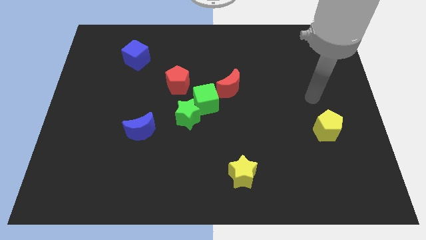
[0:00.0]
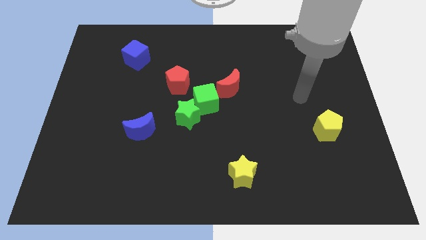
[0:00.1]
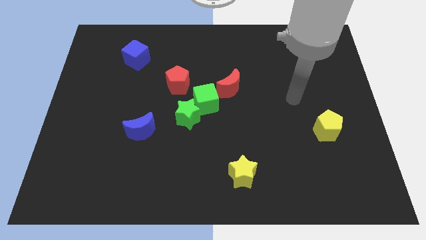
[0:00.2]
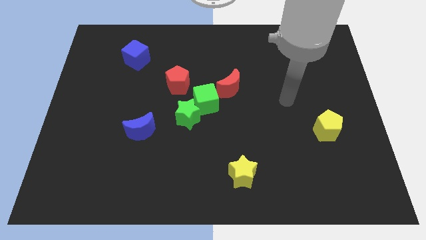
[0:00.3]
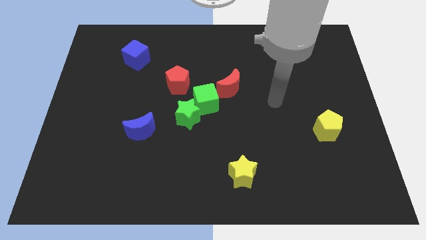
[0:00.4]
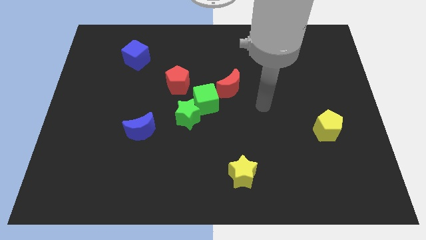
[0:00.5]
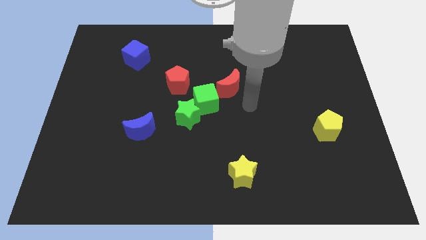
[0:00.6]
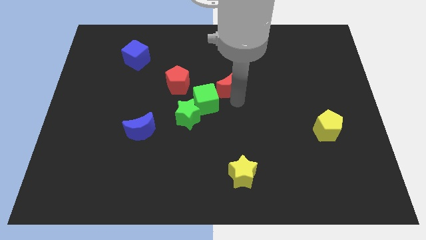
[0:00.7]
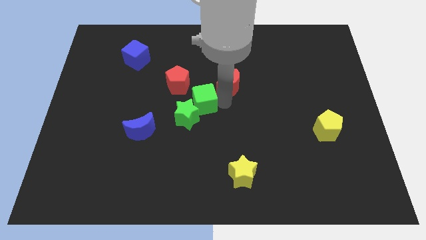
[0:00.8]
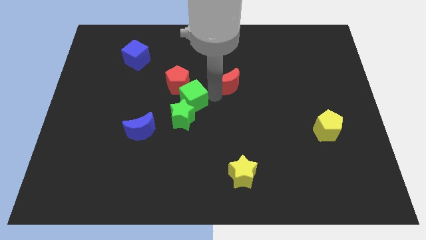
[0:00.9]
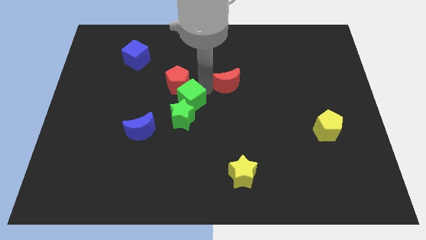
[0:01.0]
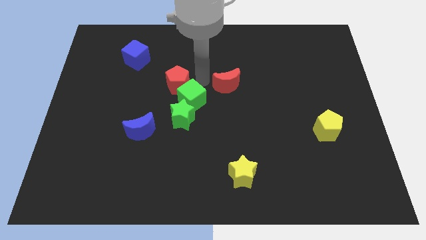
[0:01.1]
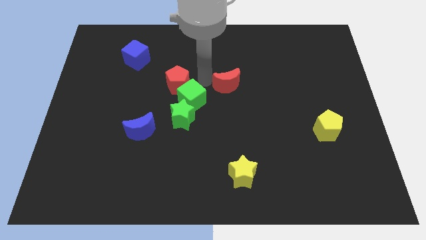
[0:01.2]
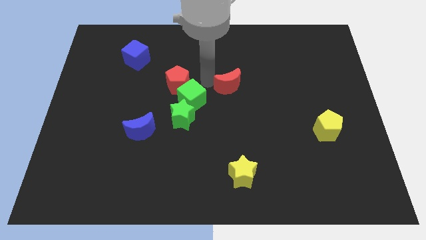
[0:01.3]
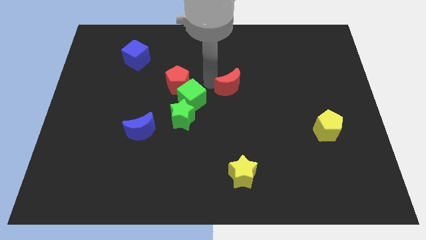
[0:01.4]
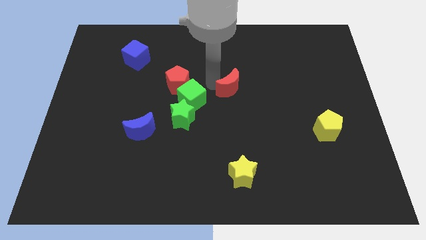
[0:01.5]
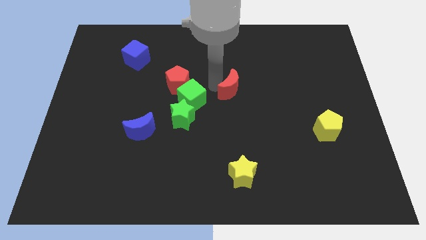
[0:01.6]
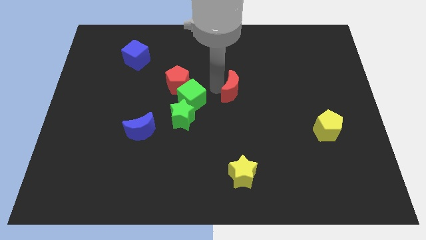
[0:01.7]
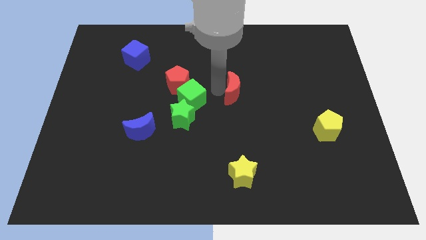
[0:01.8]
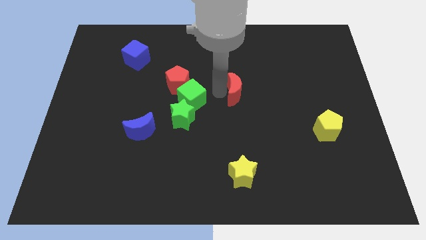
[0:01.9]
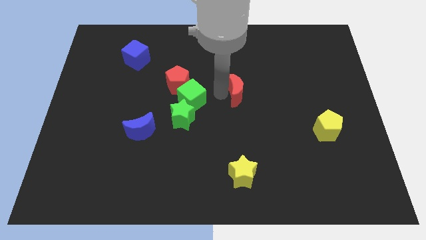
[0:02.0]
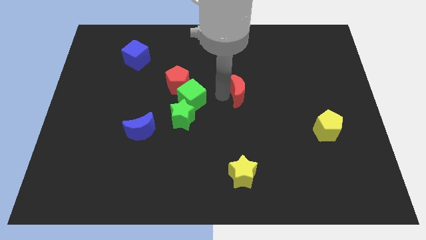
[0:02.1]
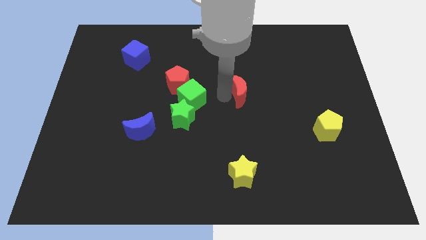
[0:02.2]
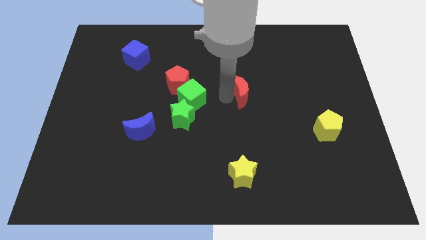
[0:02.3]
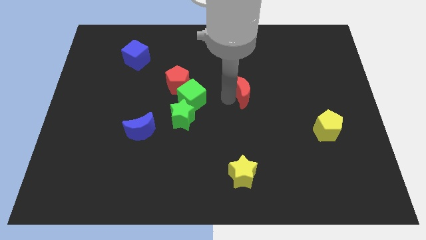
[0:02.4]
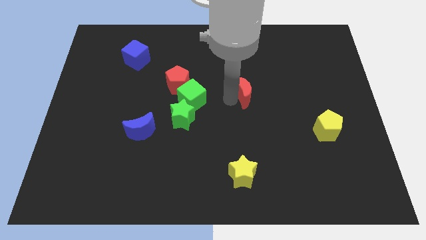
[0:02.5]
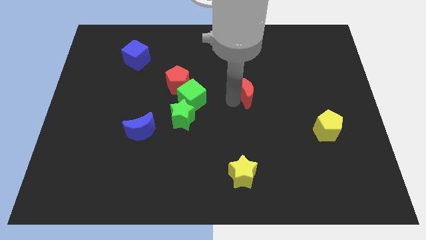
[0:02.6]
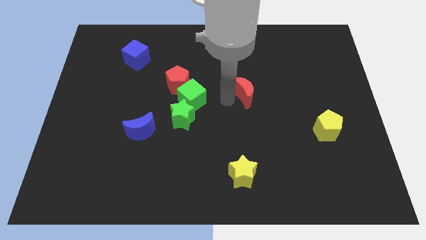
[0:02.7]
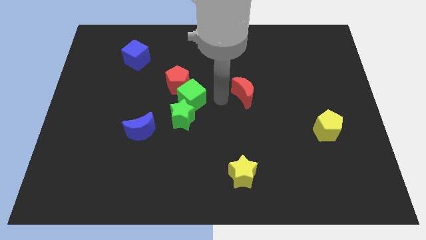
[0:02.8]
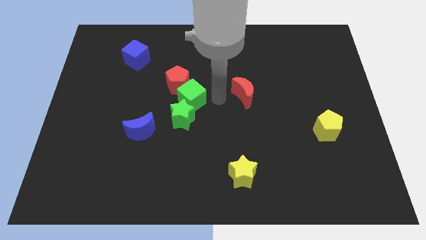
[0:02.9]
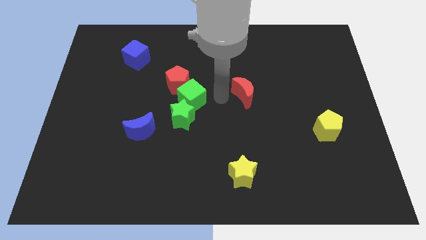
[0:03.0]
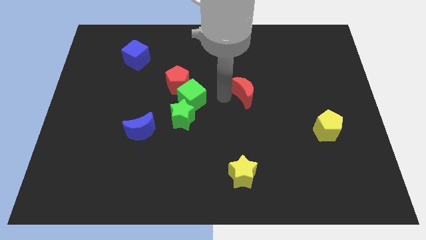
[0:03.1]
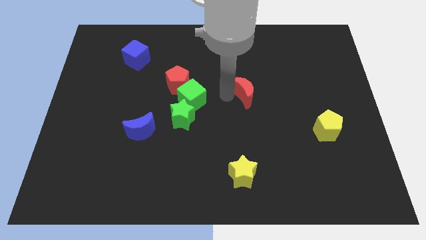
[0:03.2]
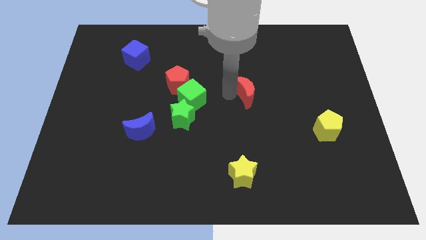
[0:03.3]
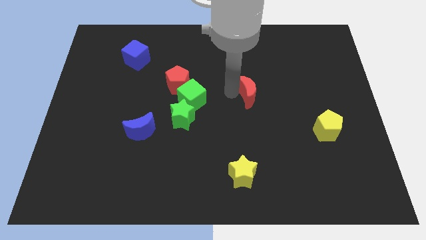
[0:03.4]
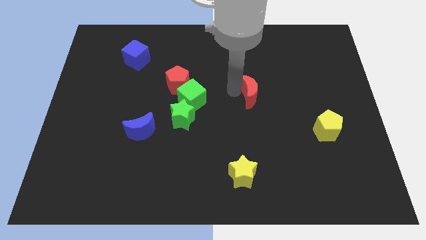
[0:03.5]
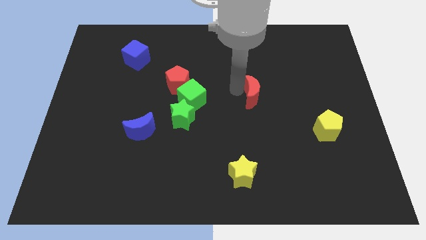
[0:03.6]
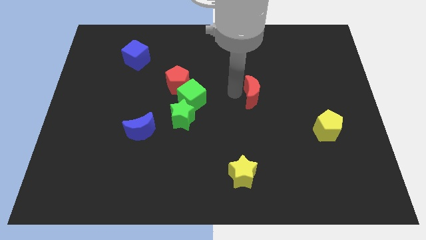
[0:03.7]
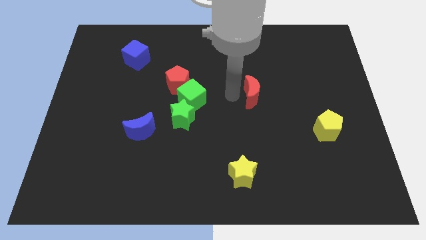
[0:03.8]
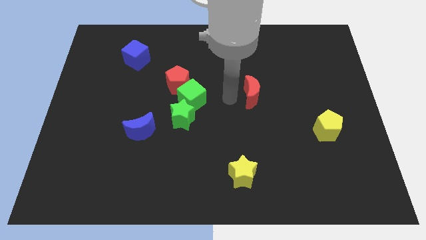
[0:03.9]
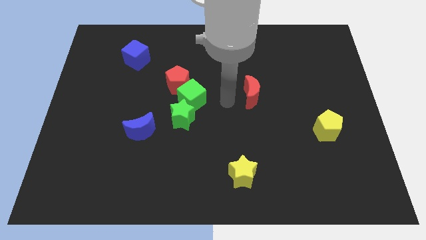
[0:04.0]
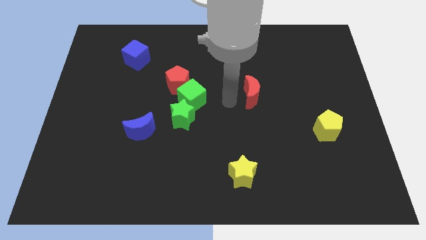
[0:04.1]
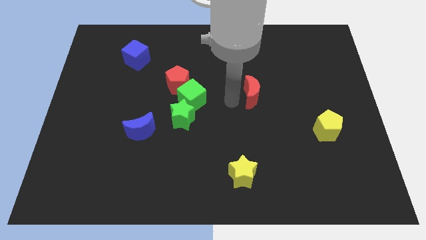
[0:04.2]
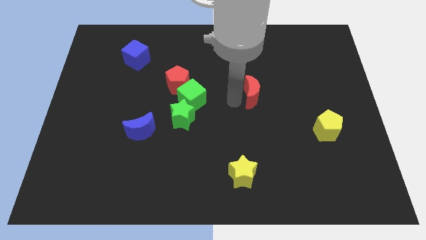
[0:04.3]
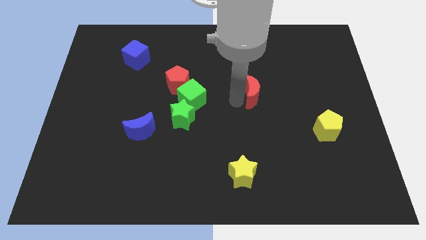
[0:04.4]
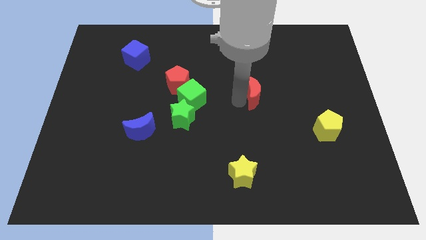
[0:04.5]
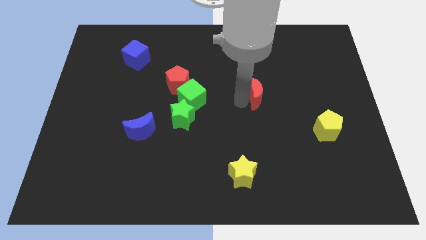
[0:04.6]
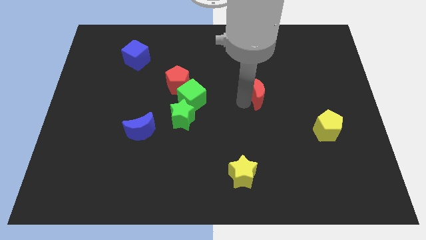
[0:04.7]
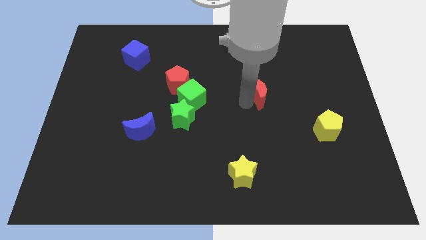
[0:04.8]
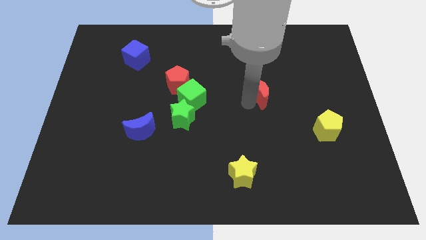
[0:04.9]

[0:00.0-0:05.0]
slightly slide the red moon to the right

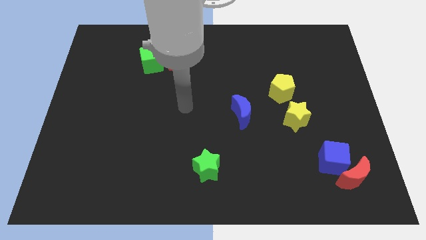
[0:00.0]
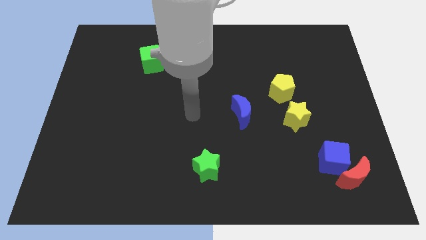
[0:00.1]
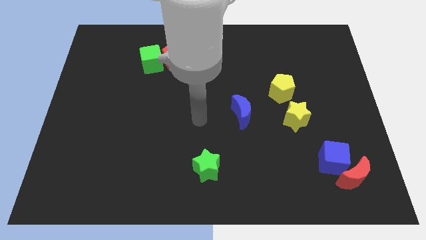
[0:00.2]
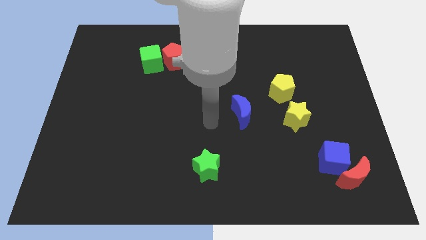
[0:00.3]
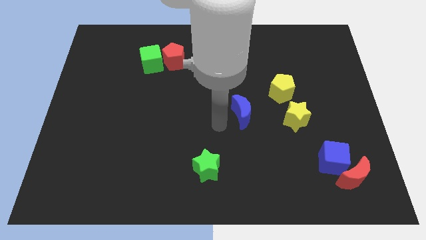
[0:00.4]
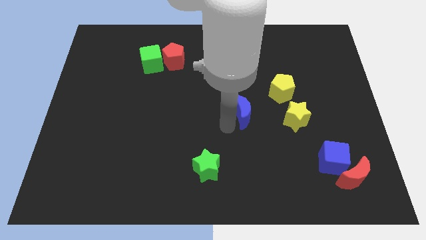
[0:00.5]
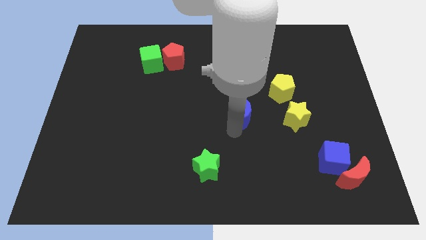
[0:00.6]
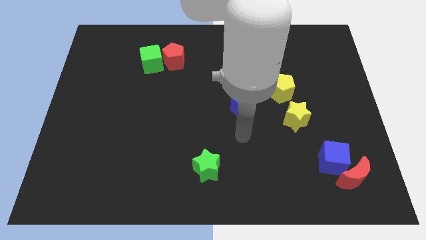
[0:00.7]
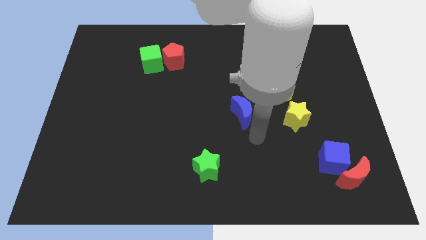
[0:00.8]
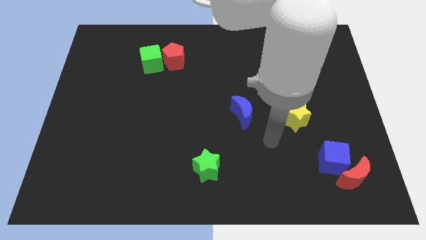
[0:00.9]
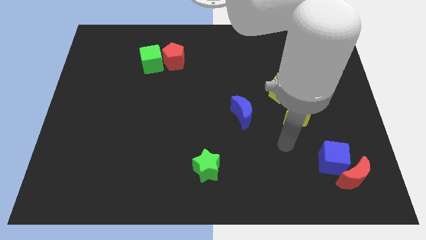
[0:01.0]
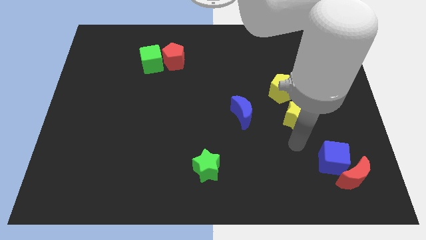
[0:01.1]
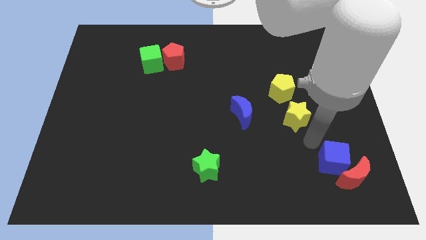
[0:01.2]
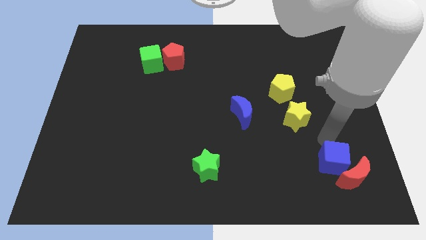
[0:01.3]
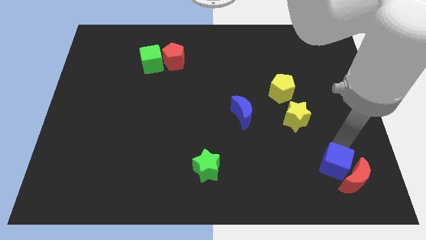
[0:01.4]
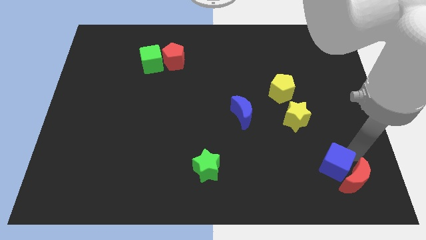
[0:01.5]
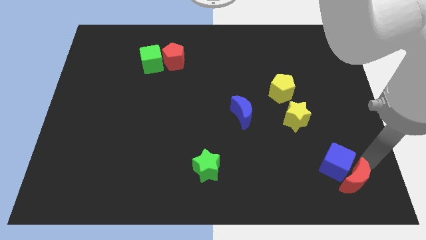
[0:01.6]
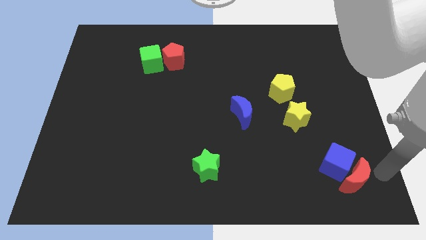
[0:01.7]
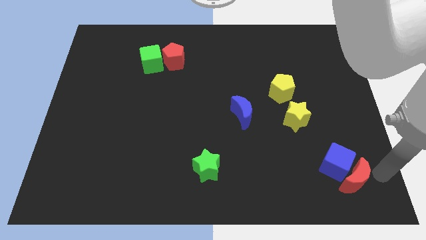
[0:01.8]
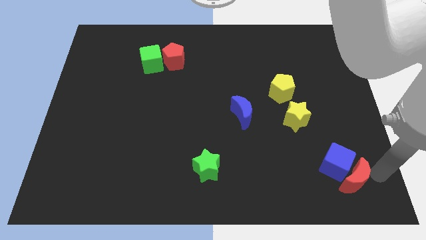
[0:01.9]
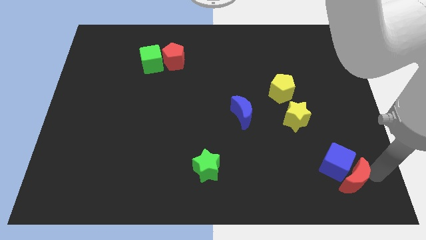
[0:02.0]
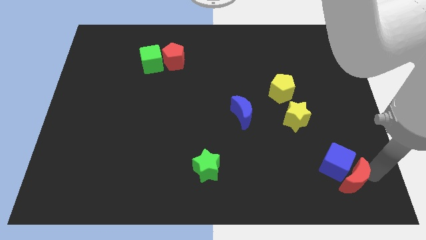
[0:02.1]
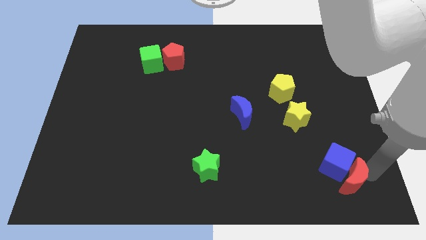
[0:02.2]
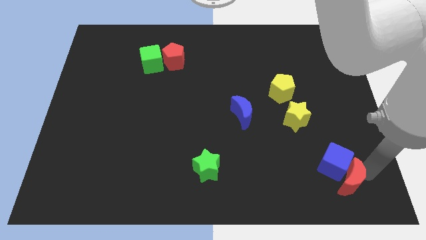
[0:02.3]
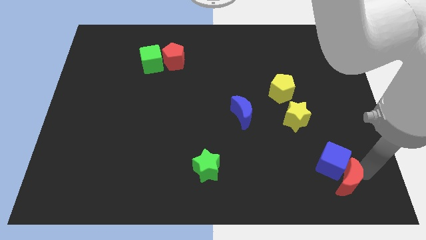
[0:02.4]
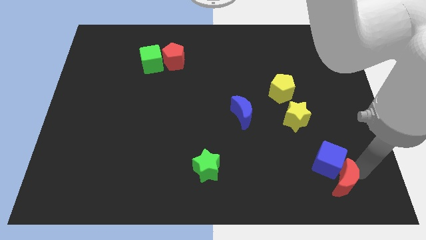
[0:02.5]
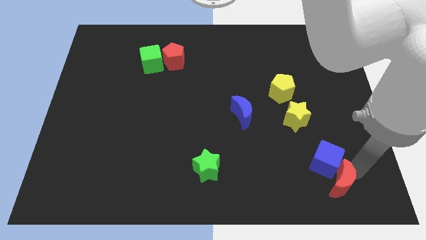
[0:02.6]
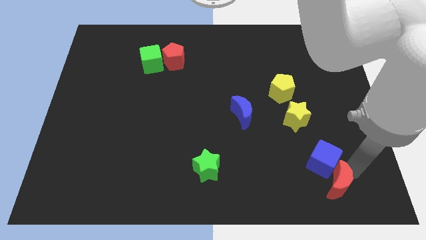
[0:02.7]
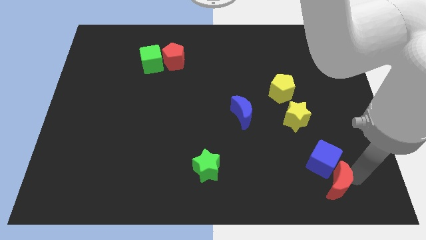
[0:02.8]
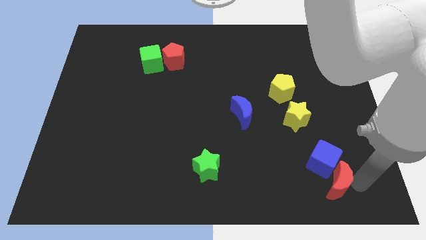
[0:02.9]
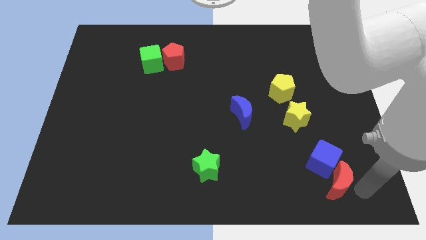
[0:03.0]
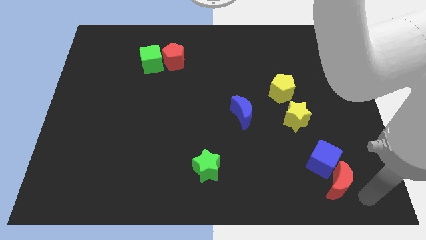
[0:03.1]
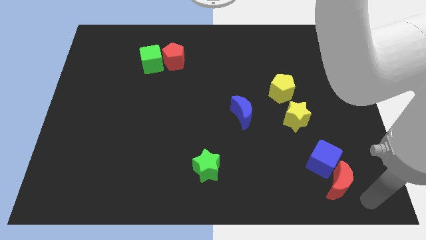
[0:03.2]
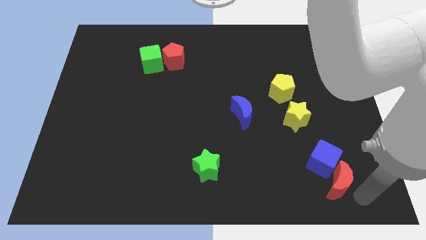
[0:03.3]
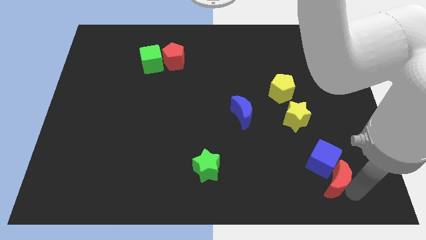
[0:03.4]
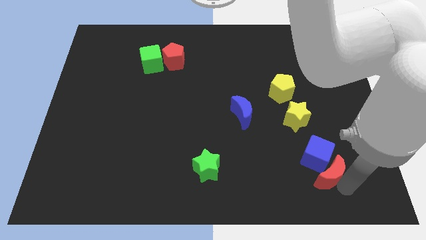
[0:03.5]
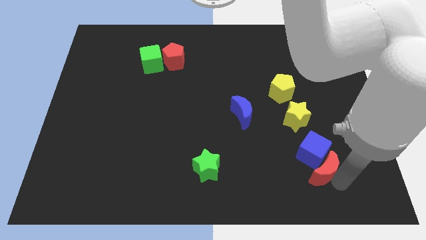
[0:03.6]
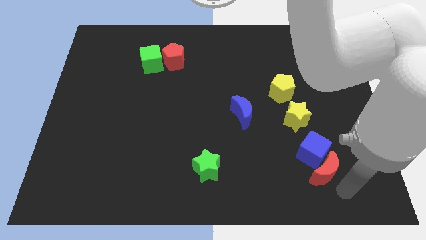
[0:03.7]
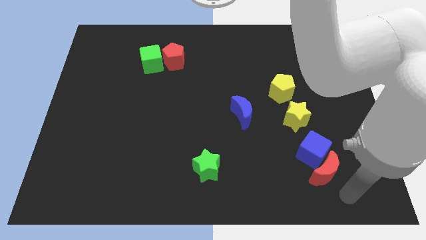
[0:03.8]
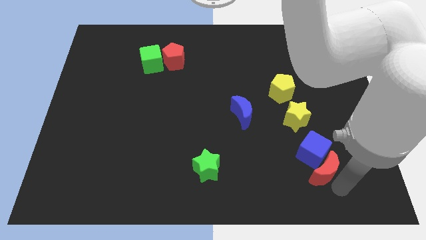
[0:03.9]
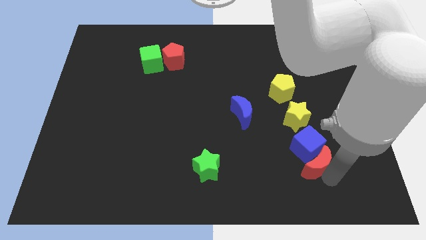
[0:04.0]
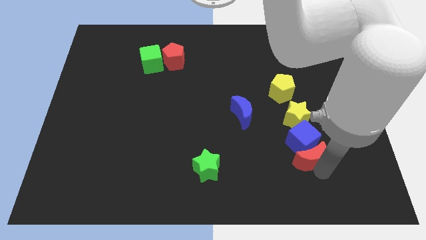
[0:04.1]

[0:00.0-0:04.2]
move the red moon upwards and then left a little bit
